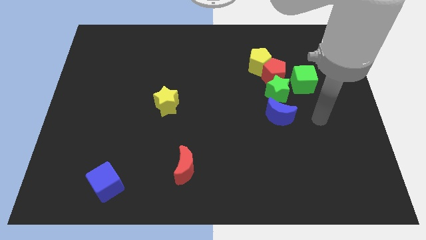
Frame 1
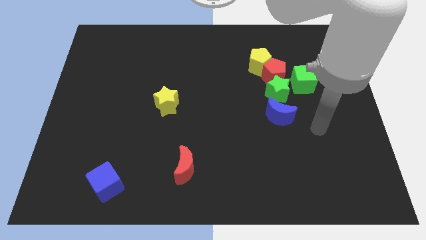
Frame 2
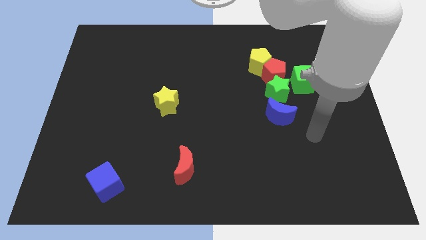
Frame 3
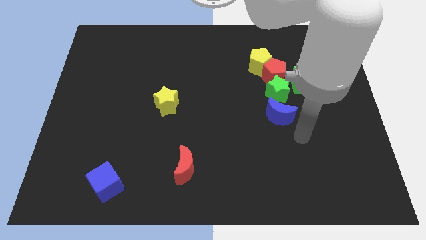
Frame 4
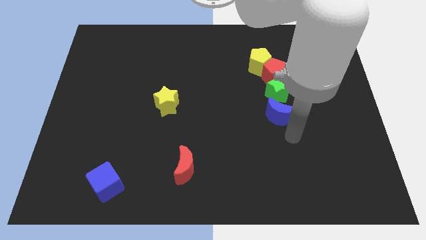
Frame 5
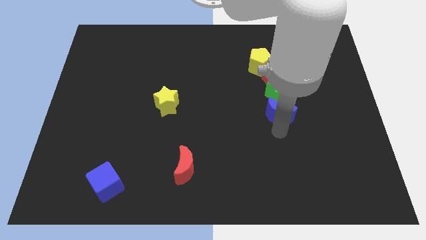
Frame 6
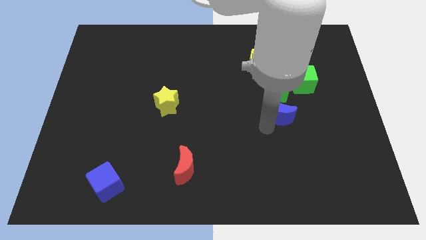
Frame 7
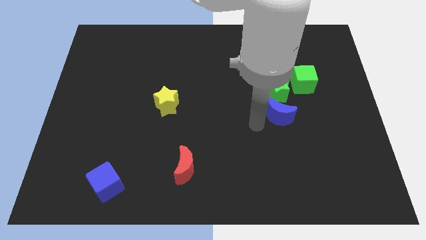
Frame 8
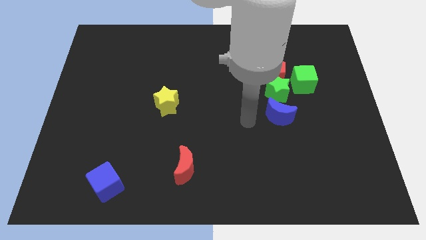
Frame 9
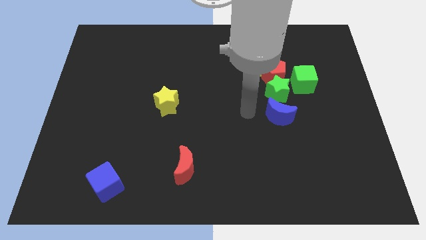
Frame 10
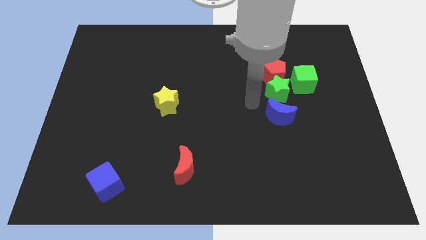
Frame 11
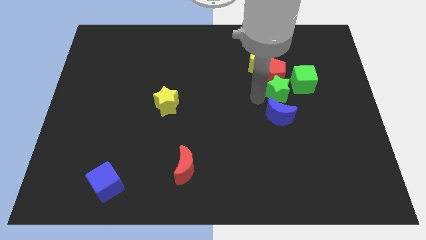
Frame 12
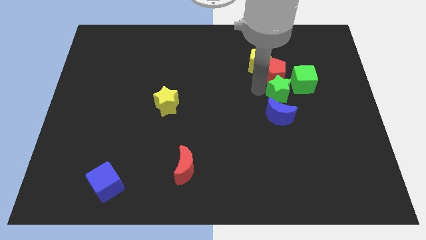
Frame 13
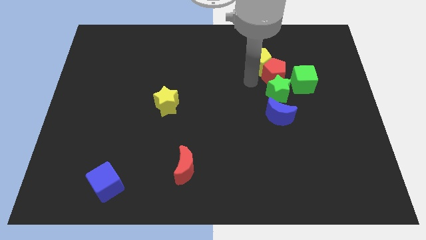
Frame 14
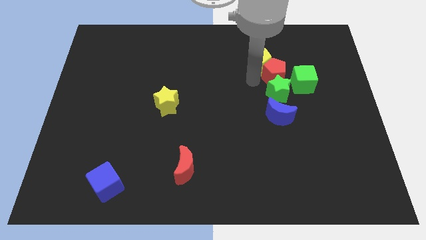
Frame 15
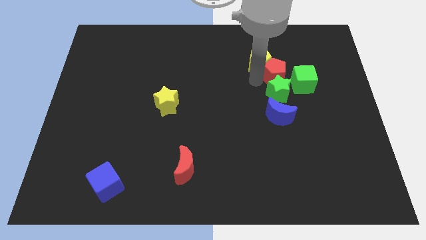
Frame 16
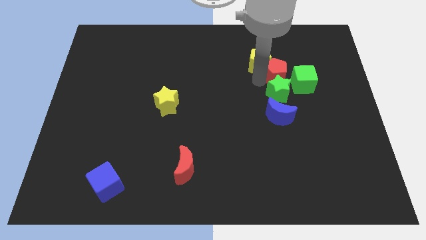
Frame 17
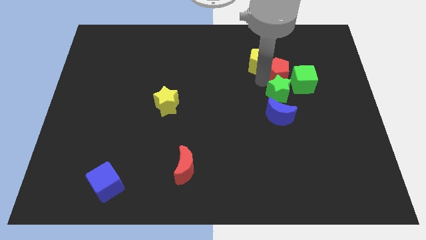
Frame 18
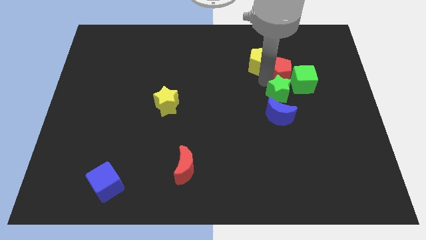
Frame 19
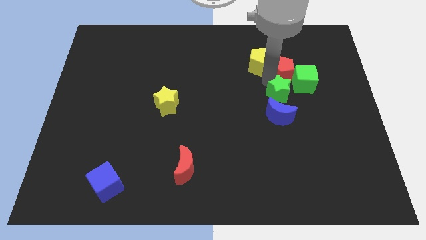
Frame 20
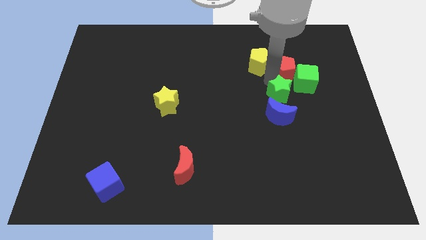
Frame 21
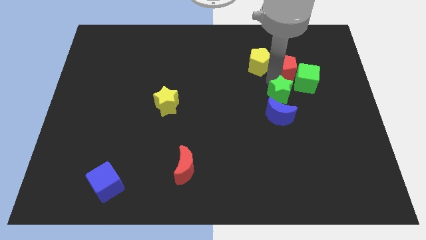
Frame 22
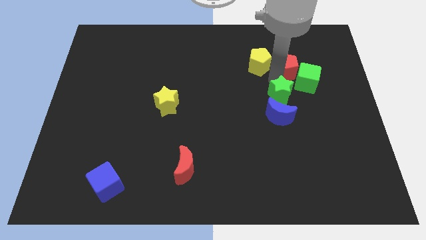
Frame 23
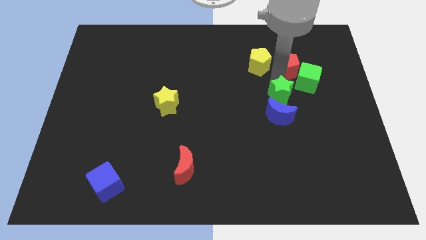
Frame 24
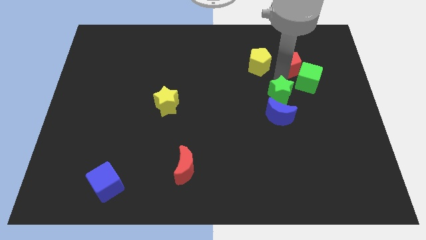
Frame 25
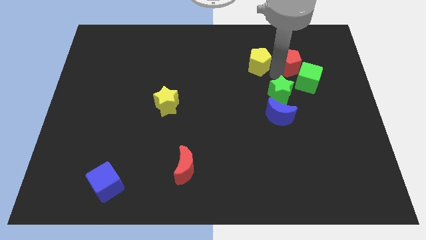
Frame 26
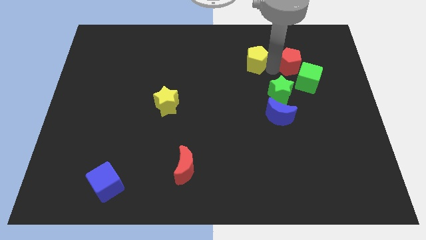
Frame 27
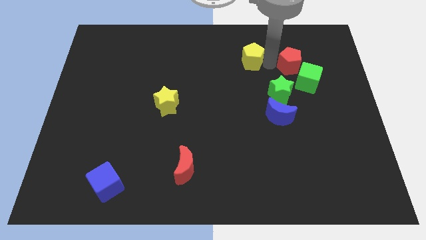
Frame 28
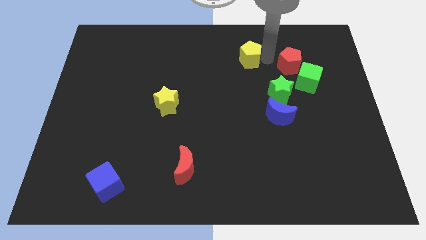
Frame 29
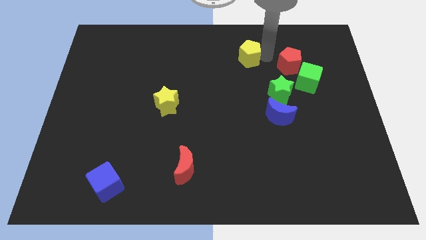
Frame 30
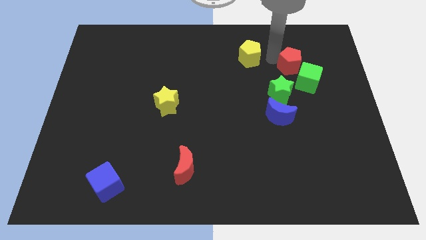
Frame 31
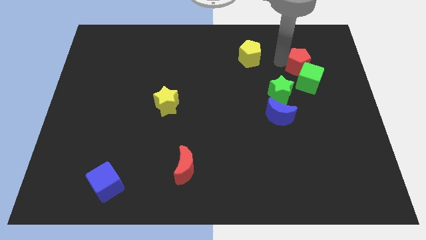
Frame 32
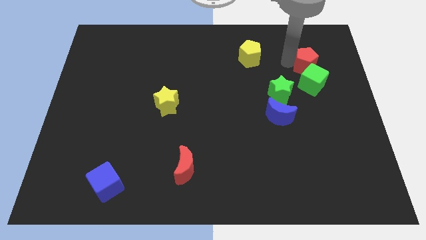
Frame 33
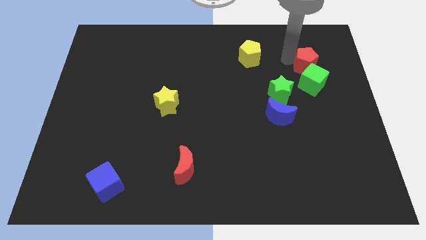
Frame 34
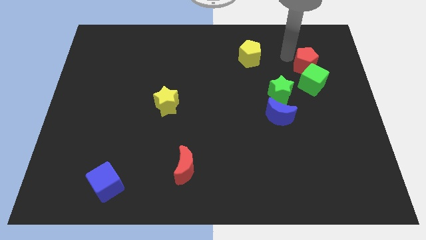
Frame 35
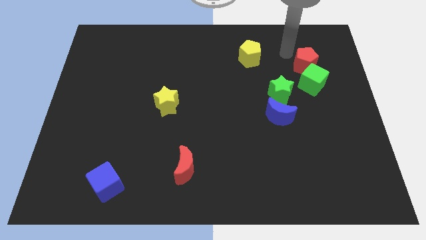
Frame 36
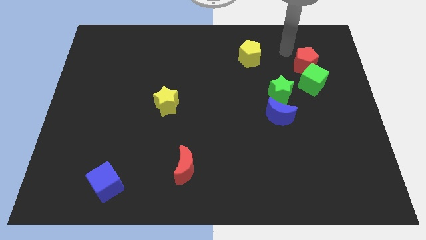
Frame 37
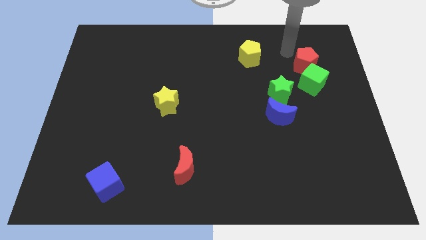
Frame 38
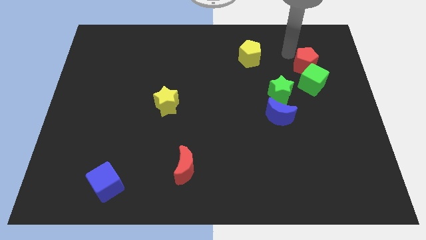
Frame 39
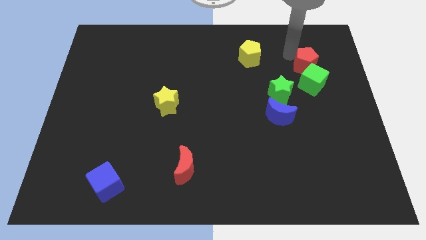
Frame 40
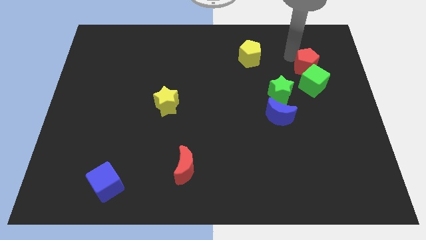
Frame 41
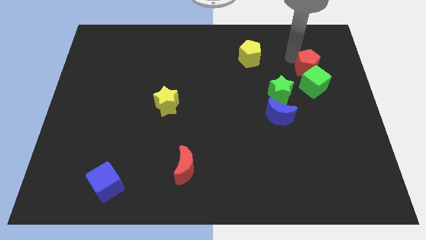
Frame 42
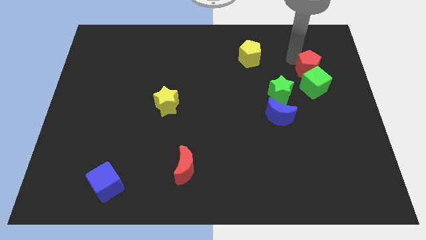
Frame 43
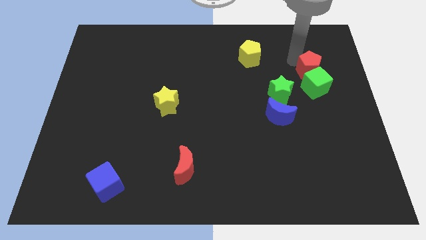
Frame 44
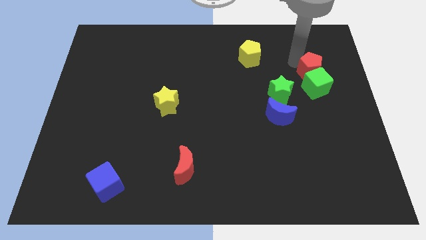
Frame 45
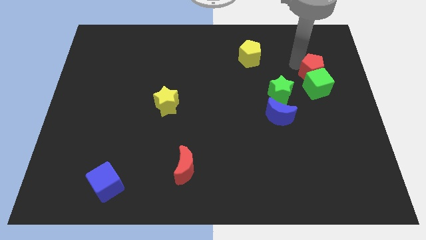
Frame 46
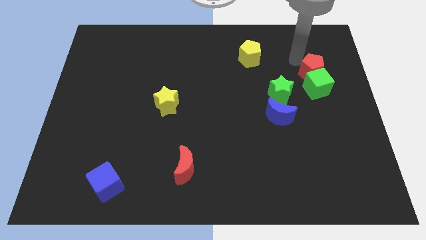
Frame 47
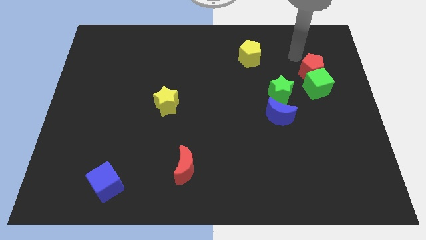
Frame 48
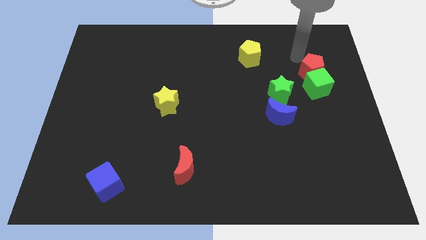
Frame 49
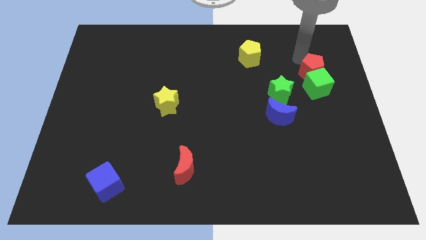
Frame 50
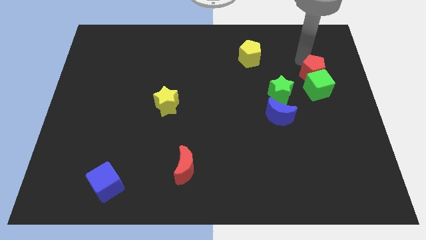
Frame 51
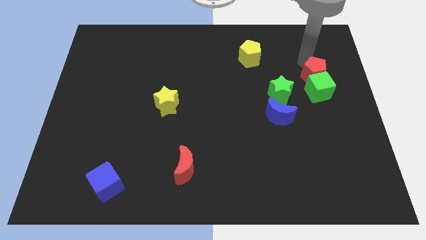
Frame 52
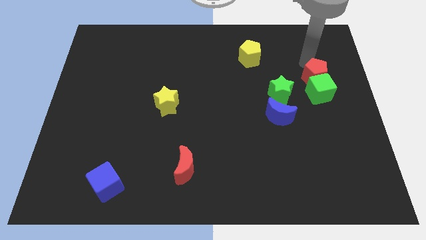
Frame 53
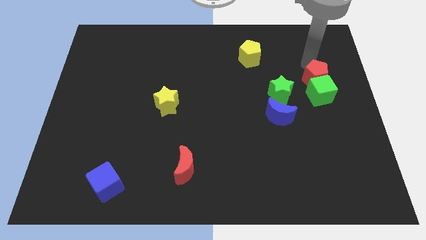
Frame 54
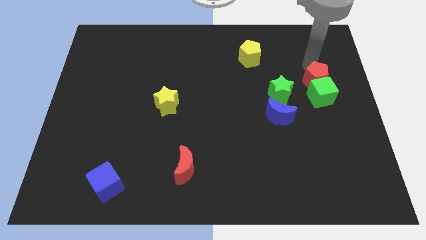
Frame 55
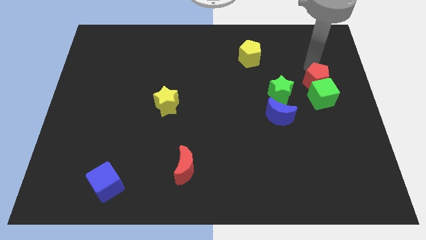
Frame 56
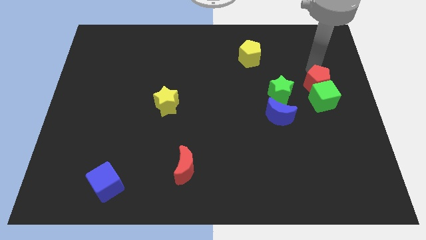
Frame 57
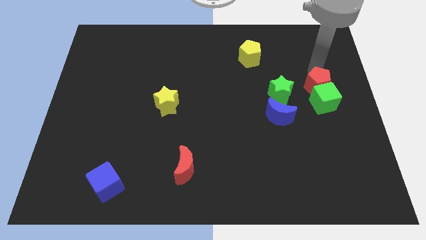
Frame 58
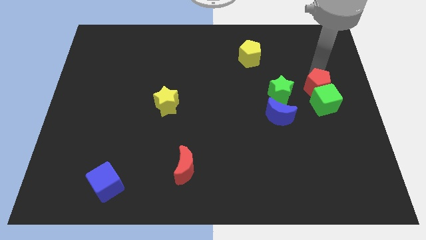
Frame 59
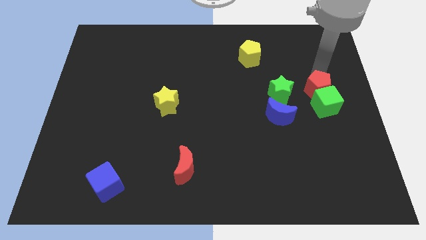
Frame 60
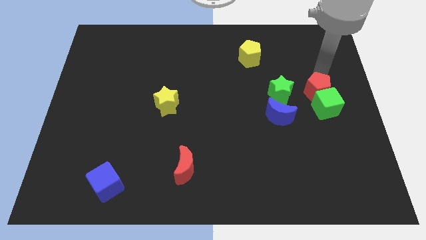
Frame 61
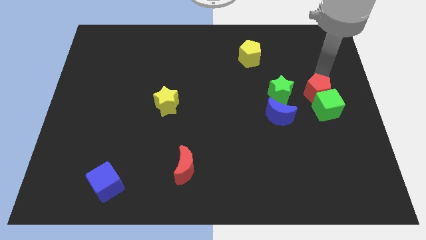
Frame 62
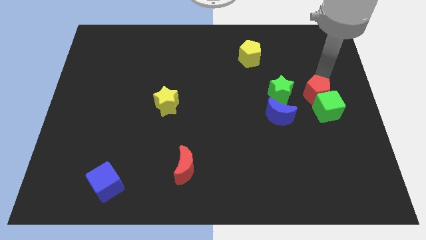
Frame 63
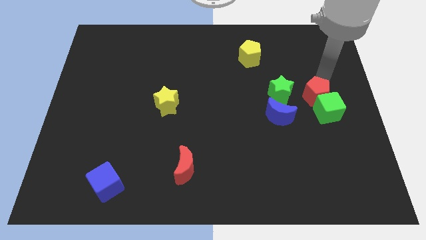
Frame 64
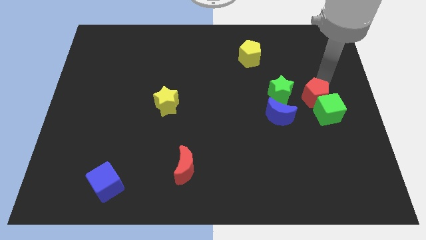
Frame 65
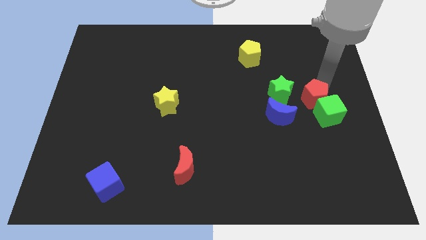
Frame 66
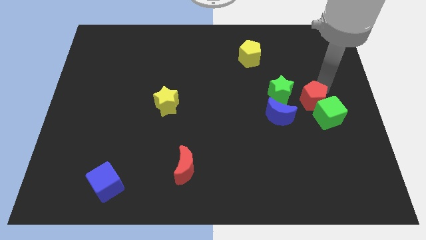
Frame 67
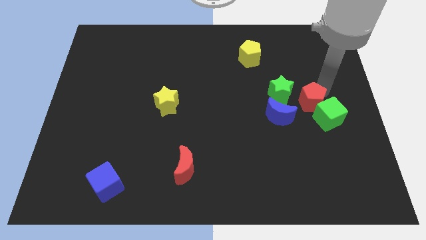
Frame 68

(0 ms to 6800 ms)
slide the red pentagon to the right side of the blue moon

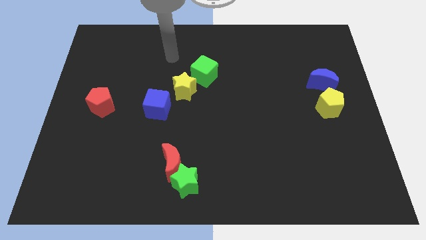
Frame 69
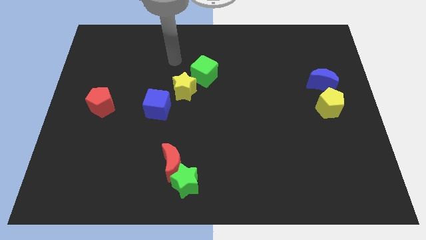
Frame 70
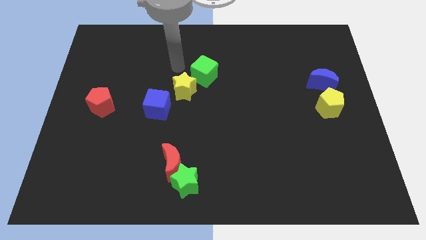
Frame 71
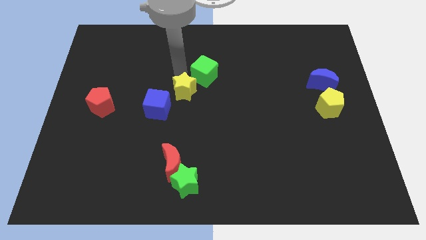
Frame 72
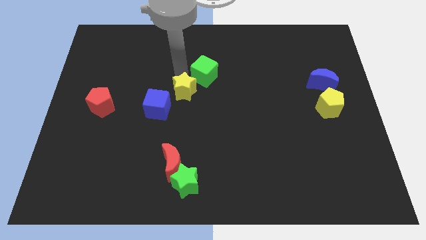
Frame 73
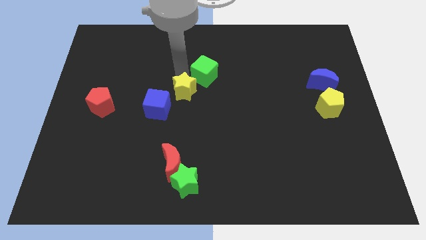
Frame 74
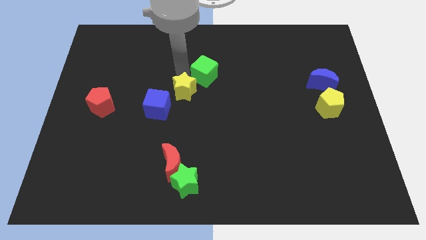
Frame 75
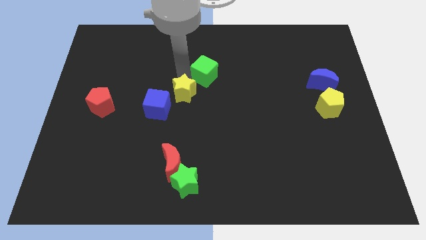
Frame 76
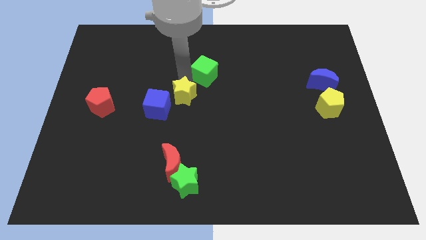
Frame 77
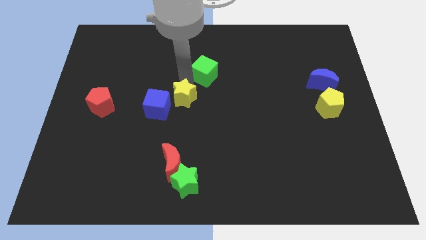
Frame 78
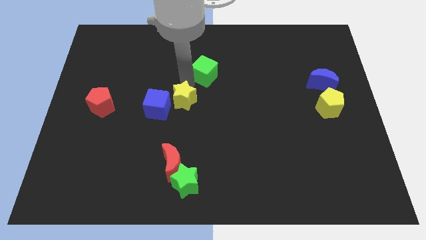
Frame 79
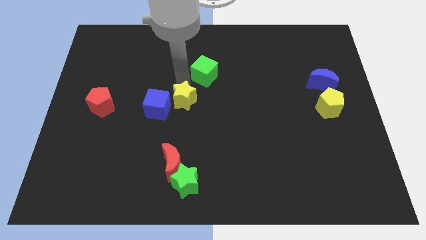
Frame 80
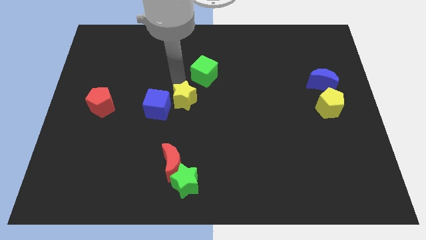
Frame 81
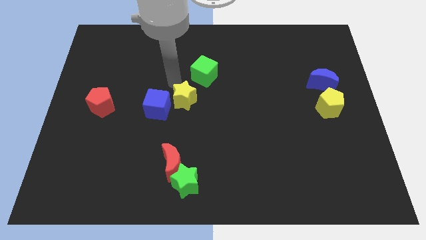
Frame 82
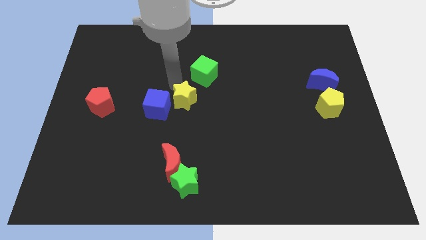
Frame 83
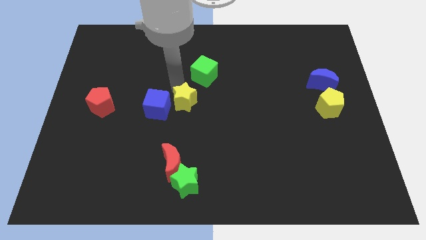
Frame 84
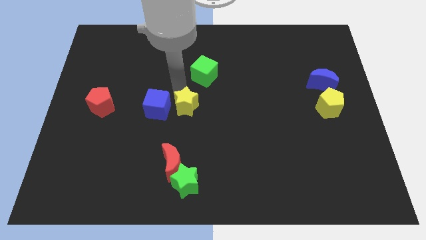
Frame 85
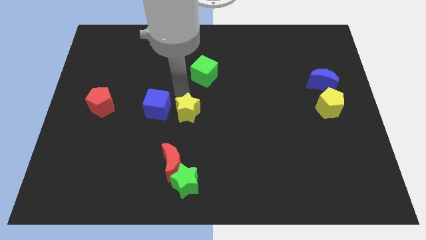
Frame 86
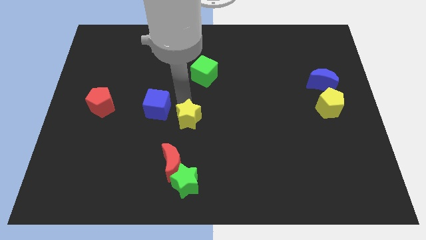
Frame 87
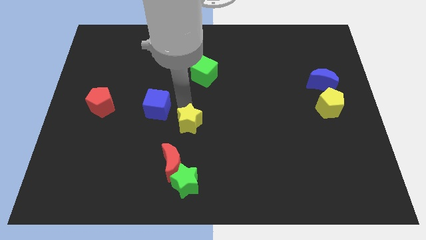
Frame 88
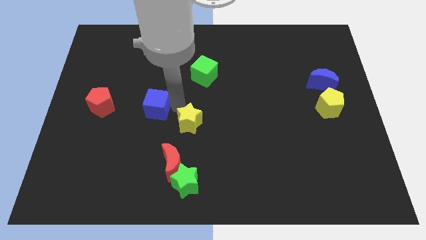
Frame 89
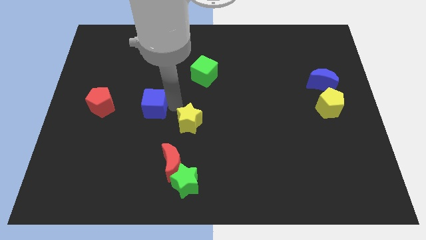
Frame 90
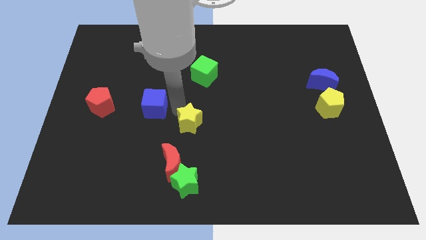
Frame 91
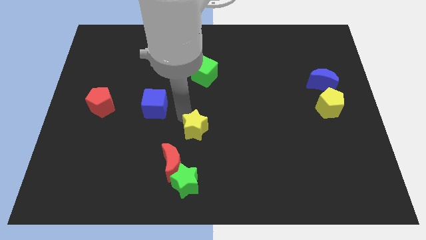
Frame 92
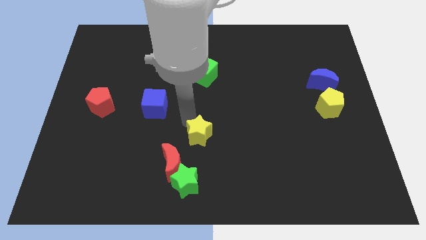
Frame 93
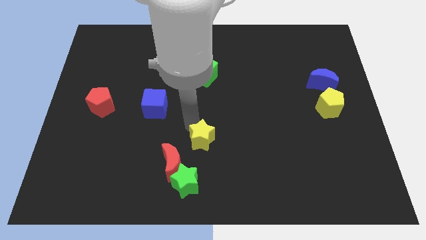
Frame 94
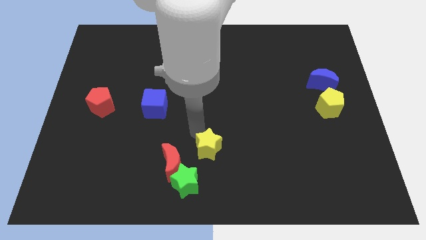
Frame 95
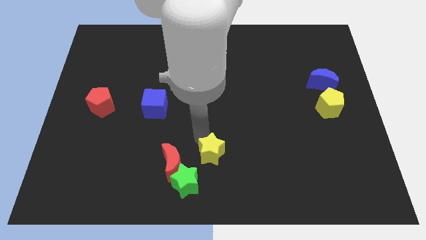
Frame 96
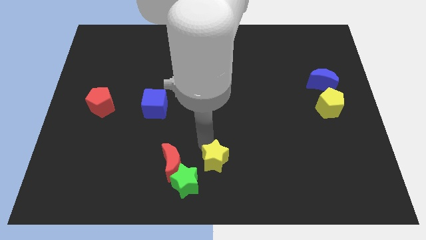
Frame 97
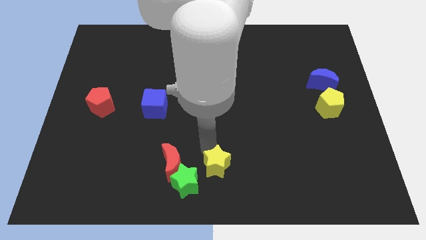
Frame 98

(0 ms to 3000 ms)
slide the yellow star just right of the green star
